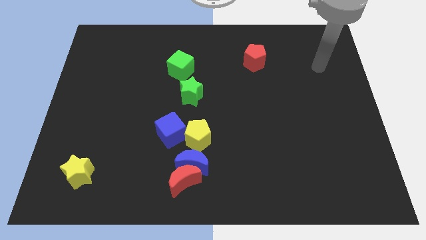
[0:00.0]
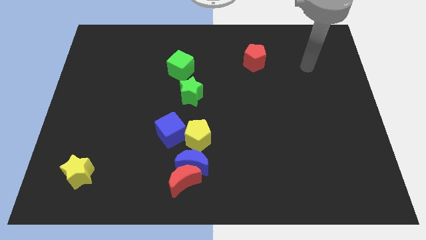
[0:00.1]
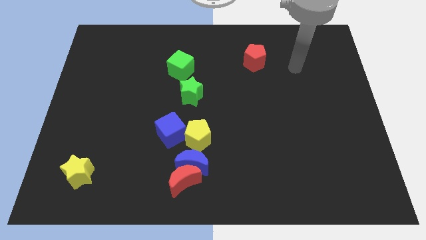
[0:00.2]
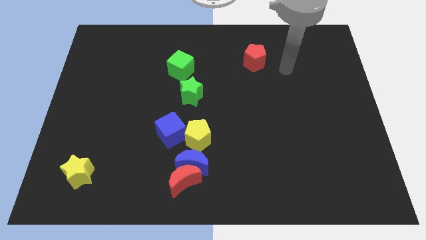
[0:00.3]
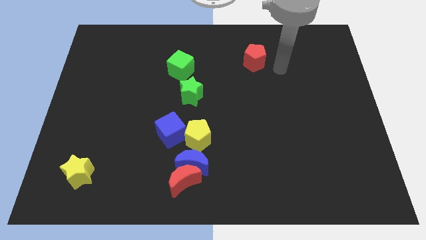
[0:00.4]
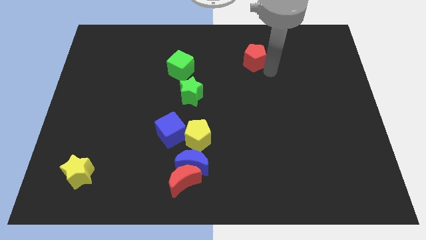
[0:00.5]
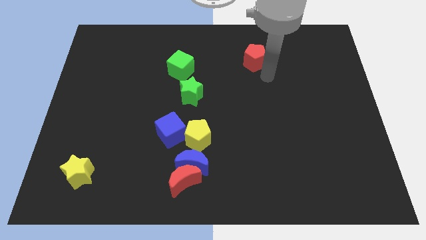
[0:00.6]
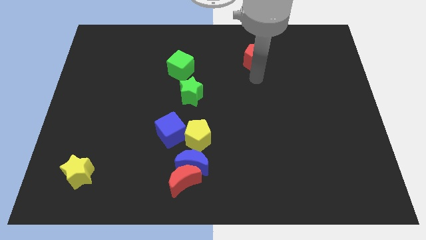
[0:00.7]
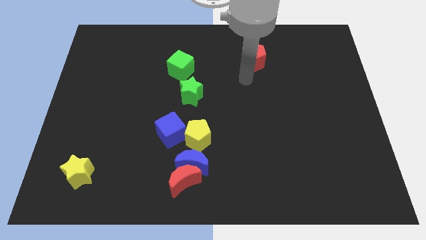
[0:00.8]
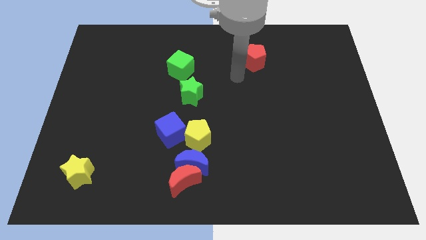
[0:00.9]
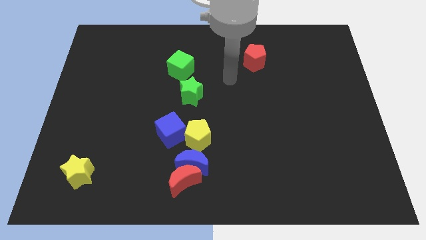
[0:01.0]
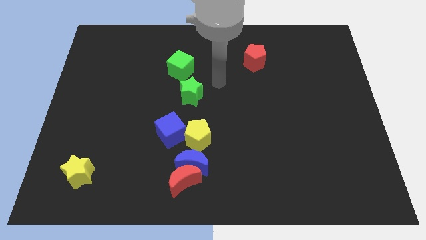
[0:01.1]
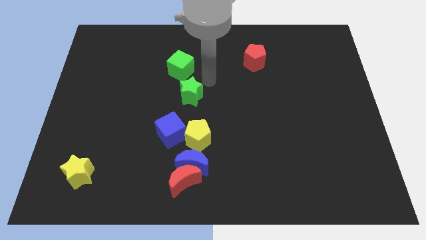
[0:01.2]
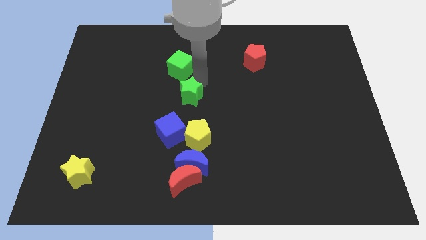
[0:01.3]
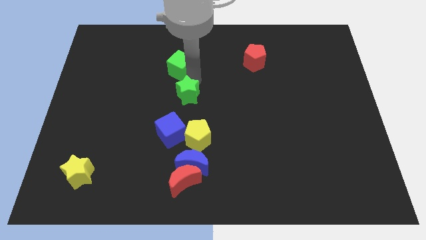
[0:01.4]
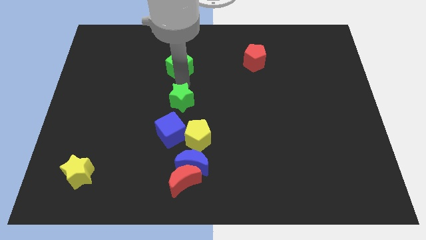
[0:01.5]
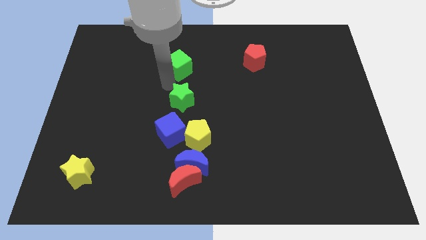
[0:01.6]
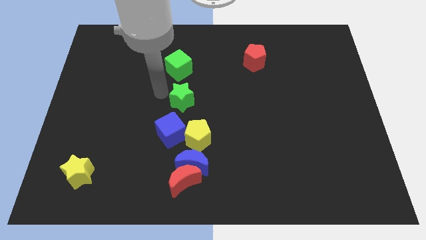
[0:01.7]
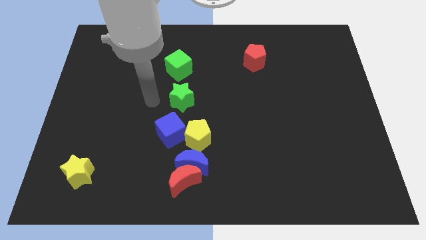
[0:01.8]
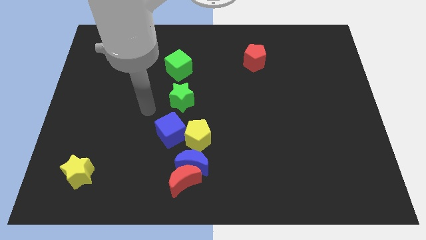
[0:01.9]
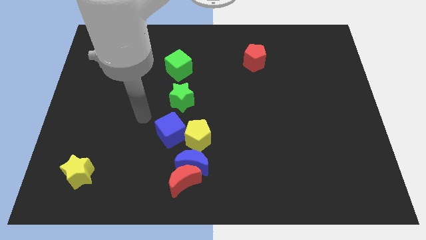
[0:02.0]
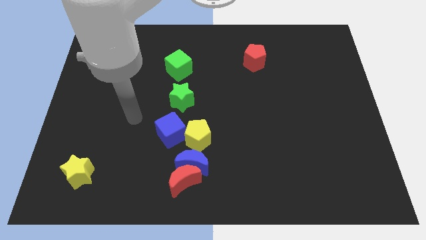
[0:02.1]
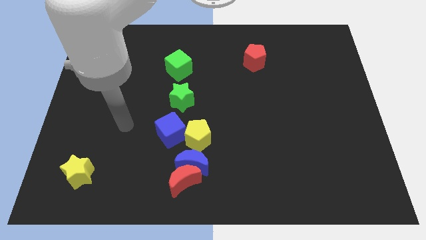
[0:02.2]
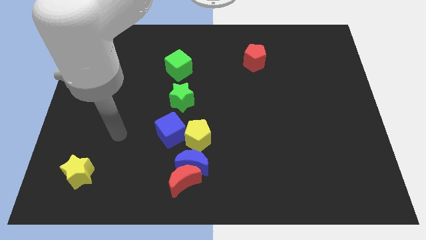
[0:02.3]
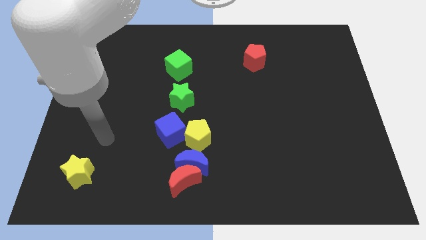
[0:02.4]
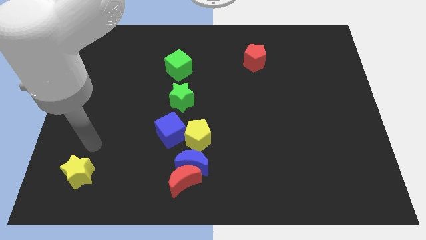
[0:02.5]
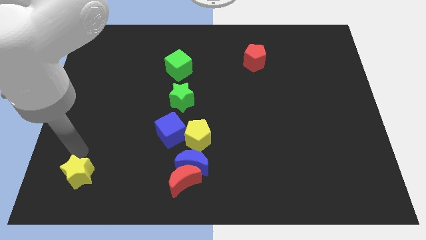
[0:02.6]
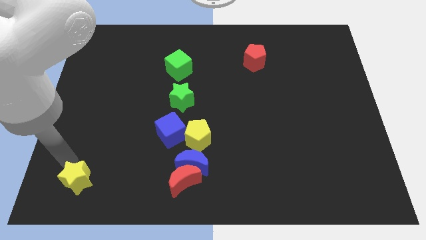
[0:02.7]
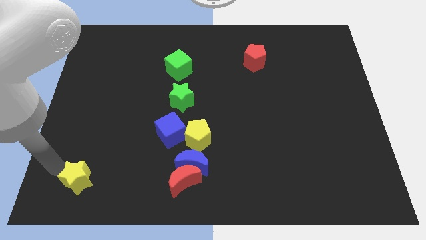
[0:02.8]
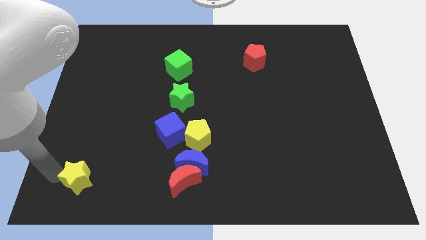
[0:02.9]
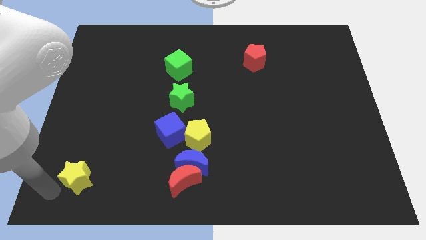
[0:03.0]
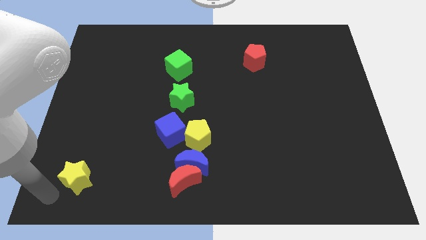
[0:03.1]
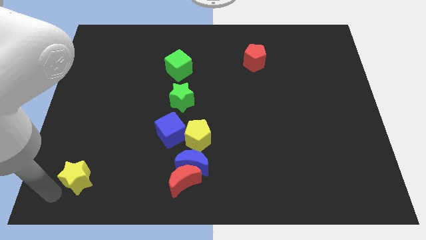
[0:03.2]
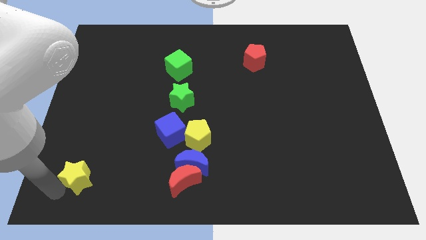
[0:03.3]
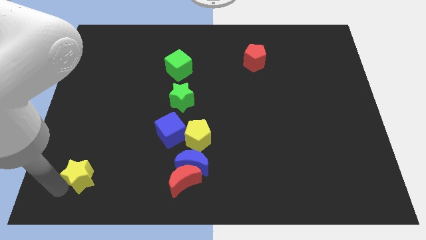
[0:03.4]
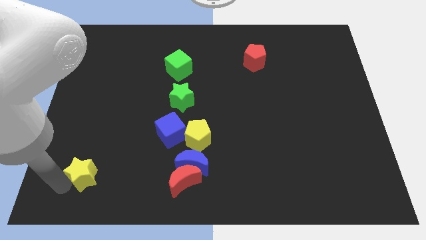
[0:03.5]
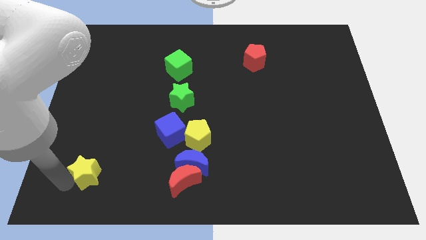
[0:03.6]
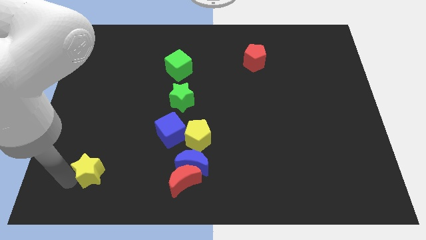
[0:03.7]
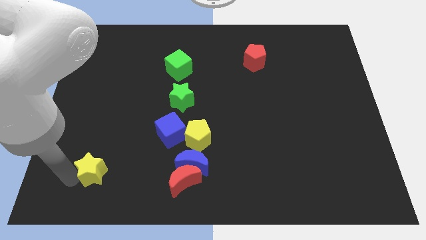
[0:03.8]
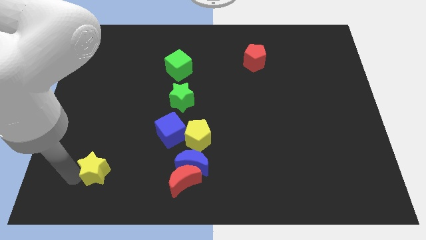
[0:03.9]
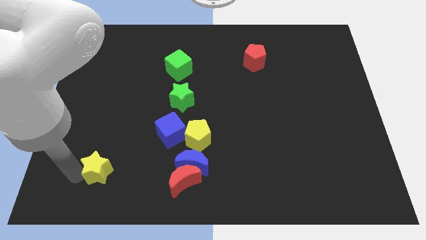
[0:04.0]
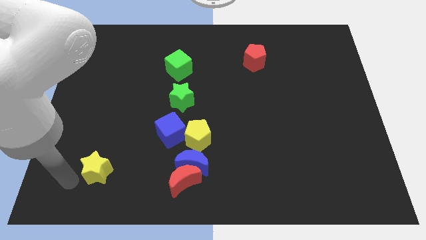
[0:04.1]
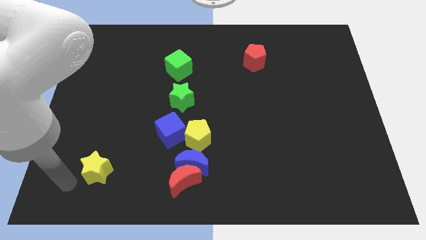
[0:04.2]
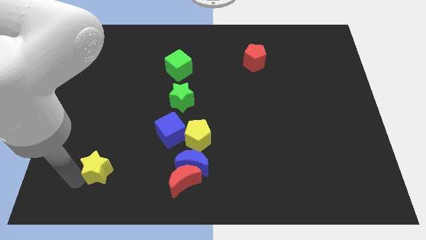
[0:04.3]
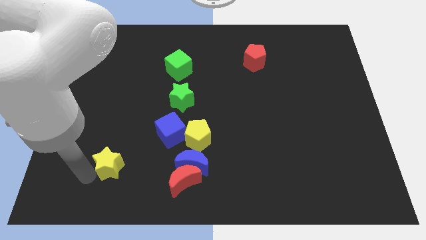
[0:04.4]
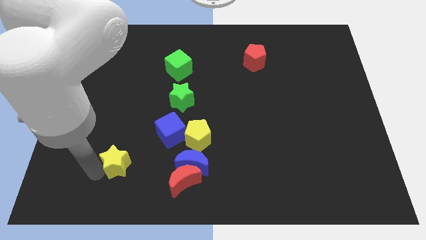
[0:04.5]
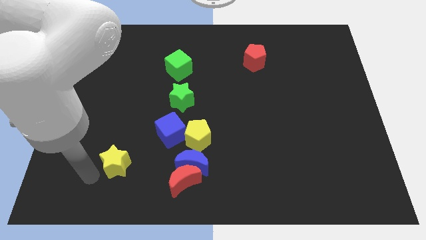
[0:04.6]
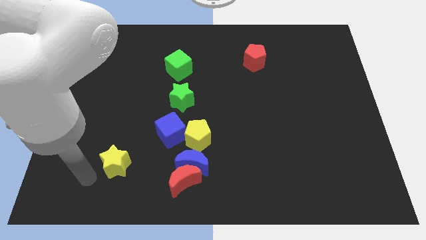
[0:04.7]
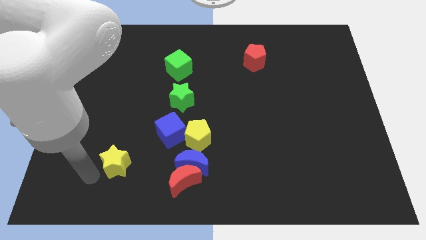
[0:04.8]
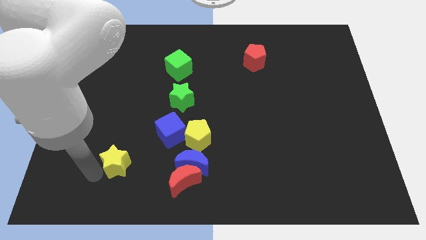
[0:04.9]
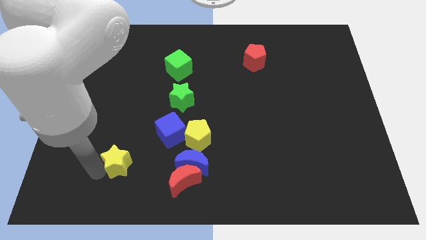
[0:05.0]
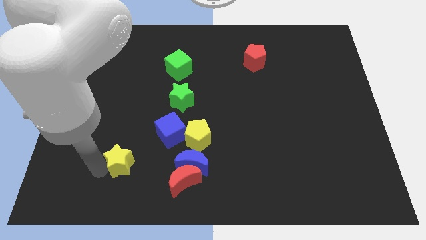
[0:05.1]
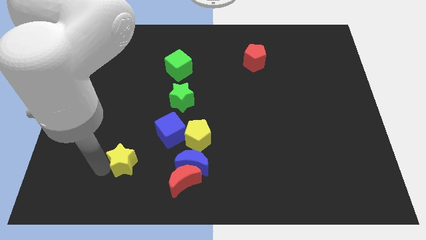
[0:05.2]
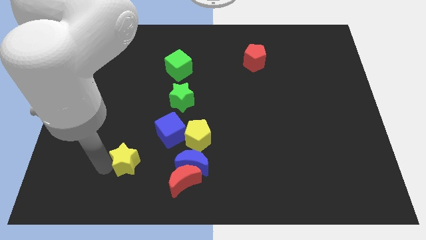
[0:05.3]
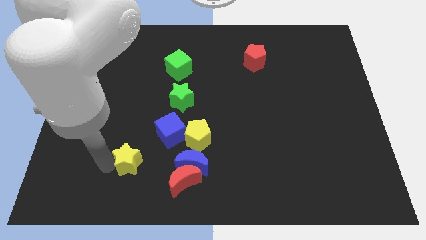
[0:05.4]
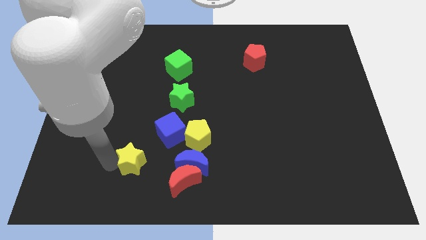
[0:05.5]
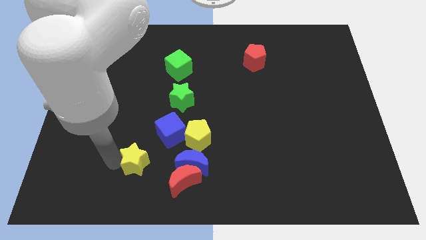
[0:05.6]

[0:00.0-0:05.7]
slide the yellow star to the top left side of the red moon

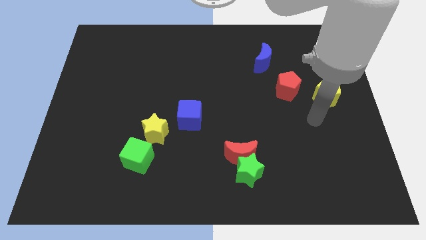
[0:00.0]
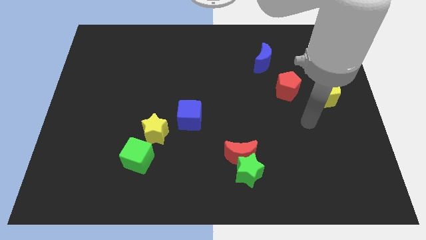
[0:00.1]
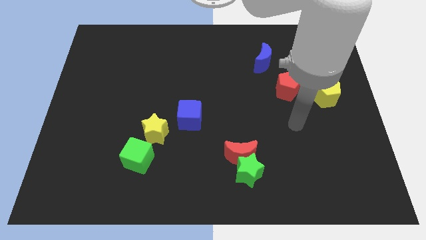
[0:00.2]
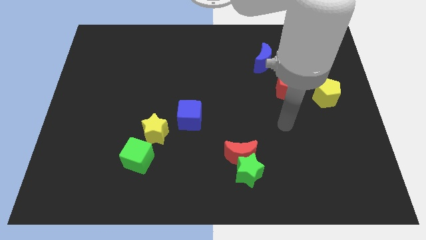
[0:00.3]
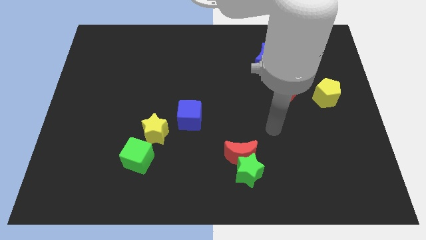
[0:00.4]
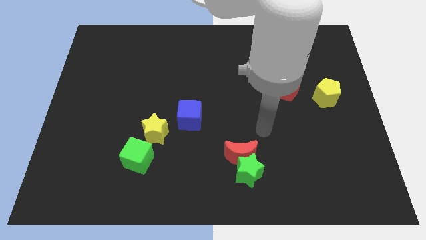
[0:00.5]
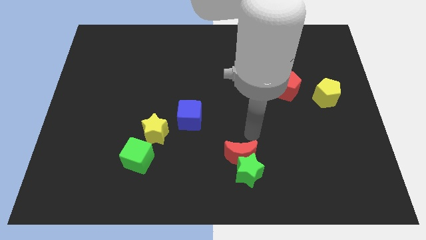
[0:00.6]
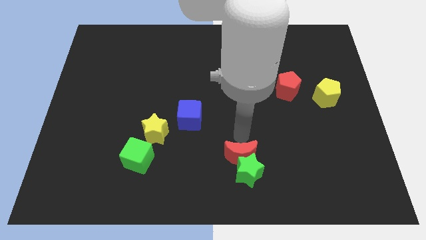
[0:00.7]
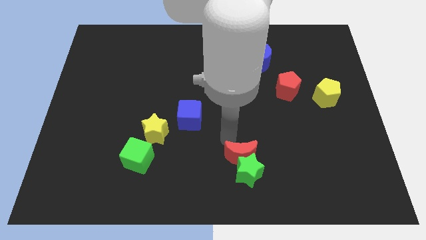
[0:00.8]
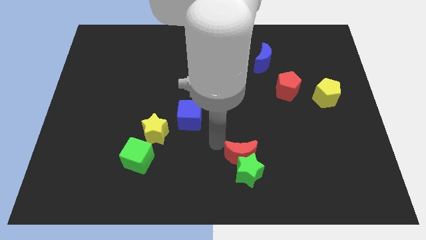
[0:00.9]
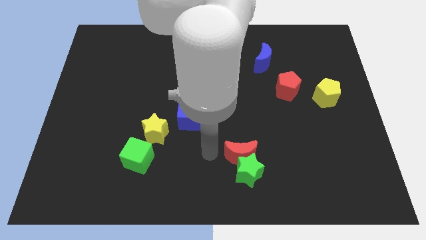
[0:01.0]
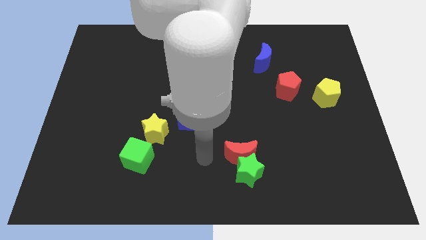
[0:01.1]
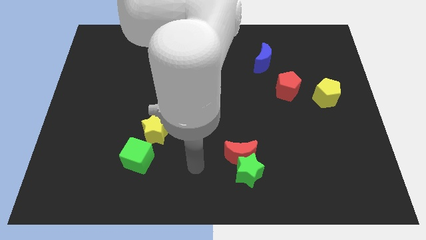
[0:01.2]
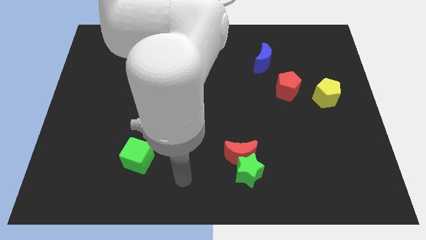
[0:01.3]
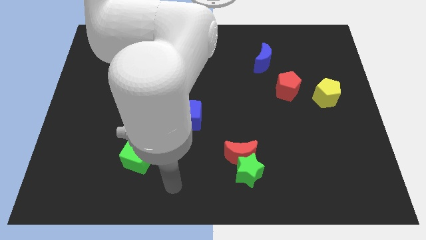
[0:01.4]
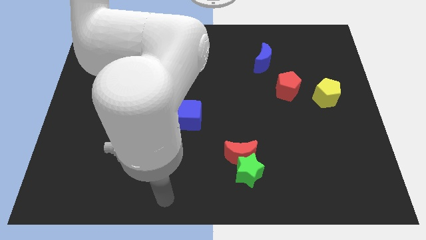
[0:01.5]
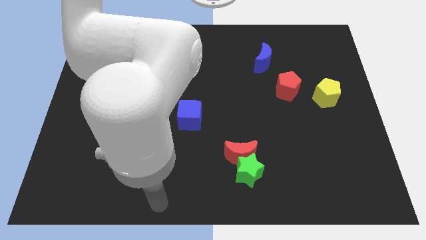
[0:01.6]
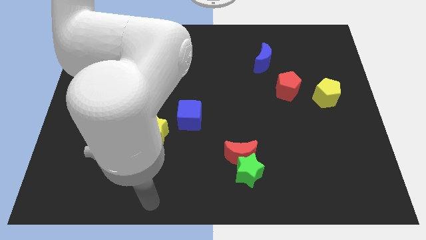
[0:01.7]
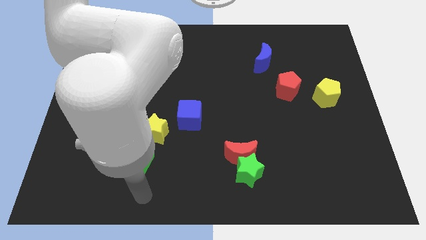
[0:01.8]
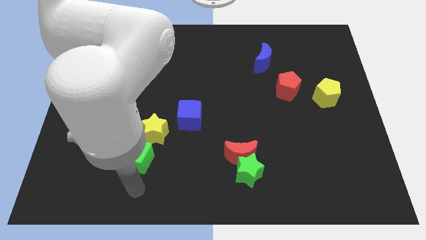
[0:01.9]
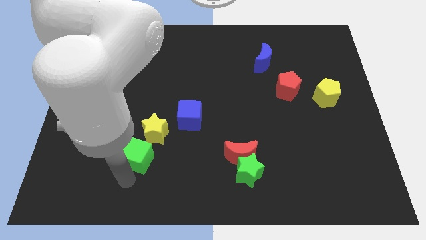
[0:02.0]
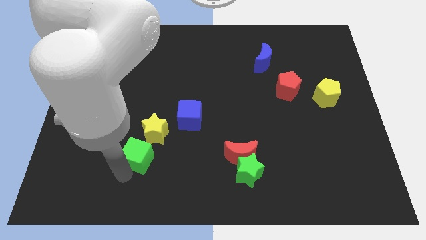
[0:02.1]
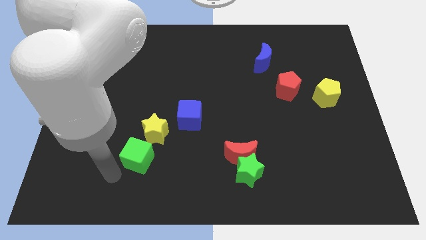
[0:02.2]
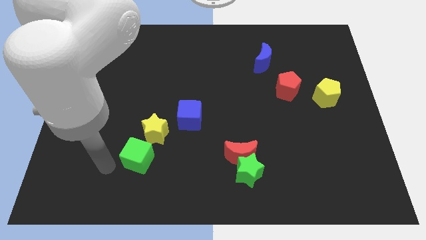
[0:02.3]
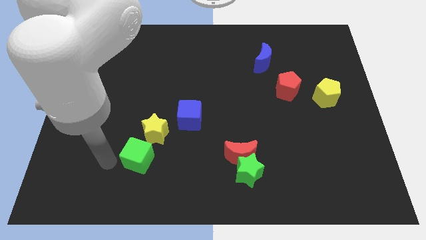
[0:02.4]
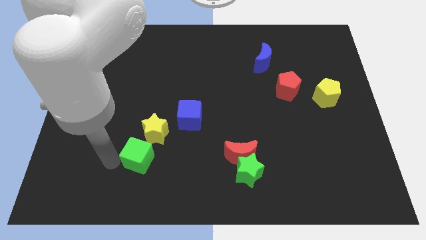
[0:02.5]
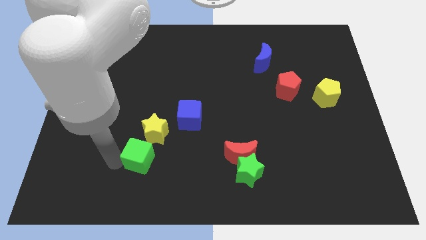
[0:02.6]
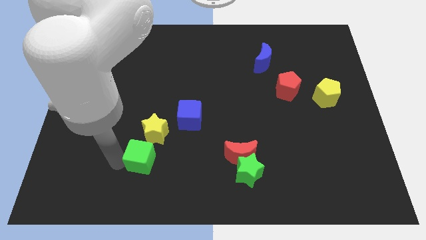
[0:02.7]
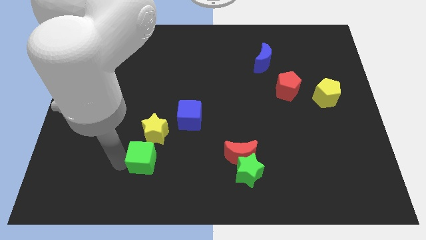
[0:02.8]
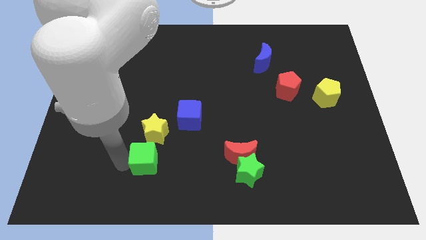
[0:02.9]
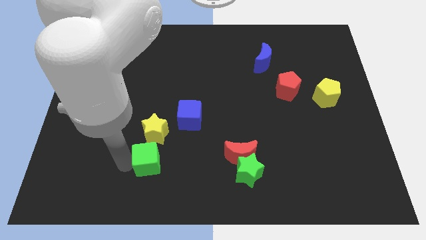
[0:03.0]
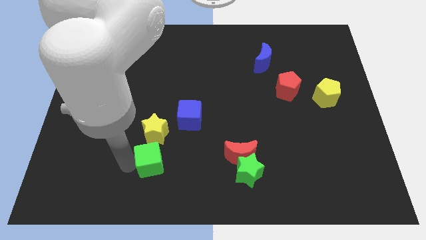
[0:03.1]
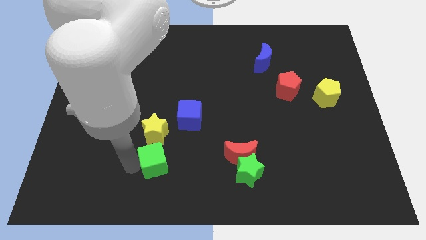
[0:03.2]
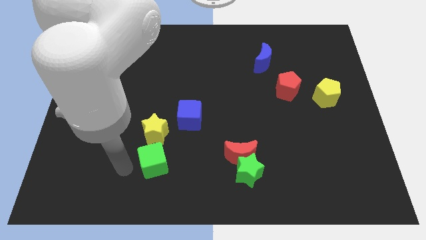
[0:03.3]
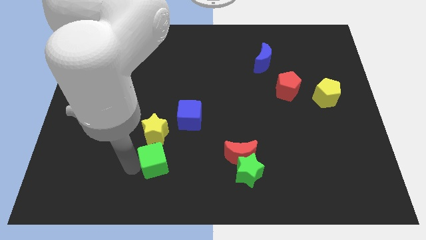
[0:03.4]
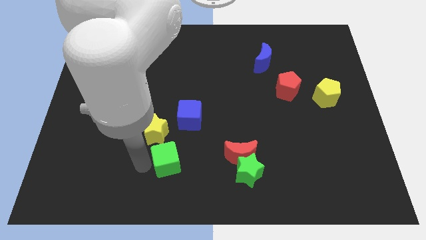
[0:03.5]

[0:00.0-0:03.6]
slide the green cube left of the red moon
